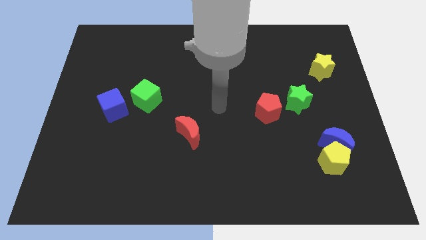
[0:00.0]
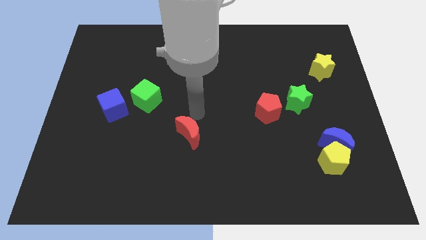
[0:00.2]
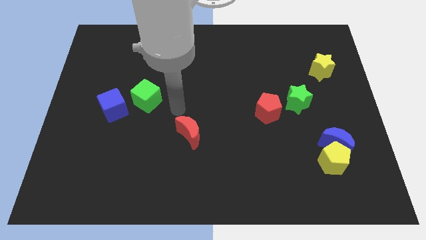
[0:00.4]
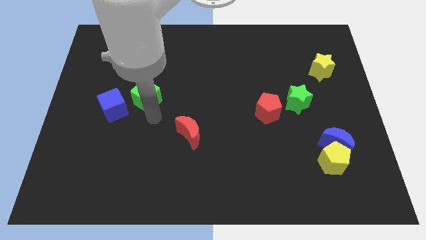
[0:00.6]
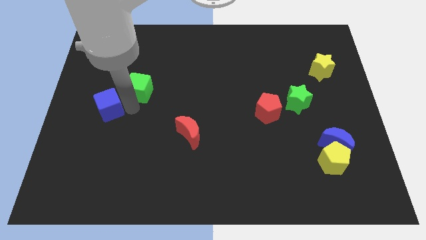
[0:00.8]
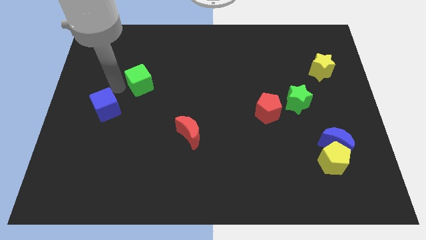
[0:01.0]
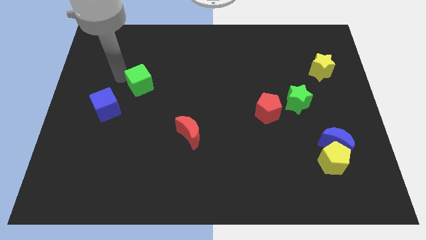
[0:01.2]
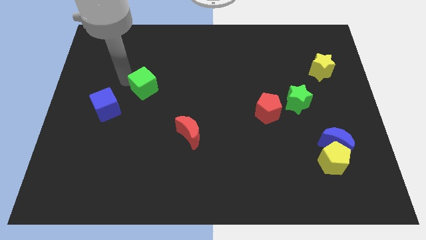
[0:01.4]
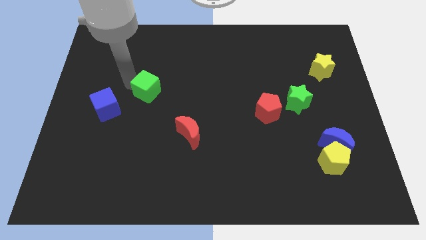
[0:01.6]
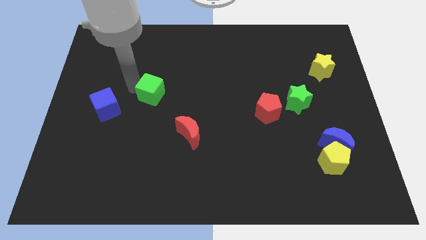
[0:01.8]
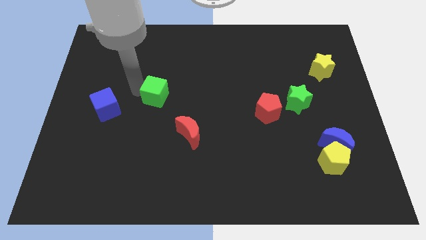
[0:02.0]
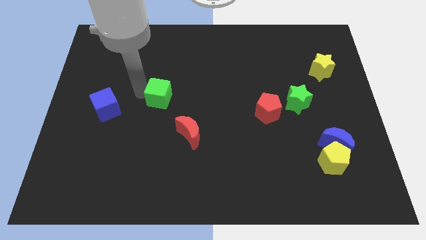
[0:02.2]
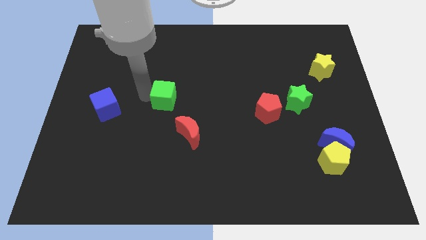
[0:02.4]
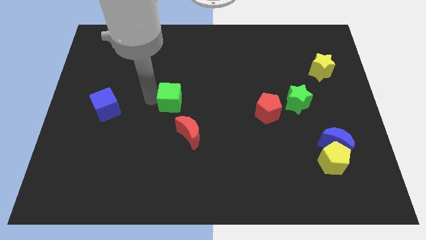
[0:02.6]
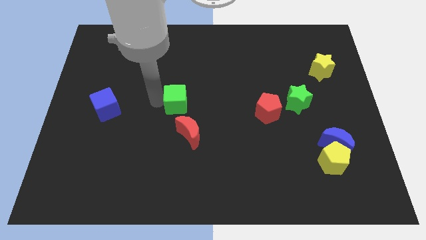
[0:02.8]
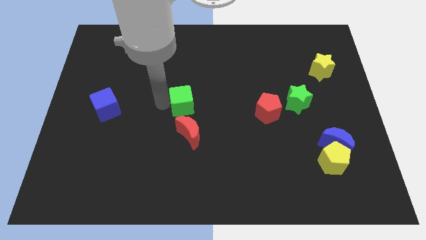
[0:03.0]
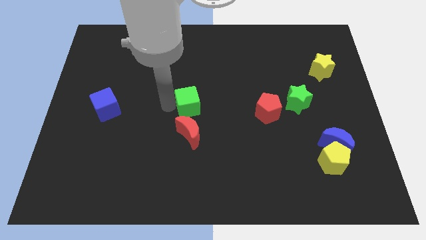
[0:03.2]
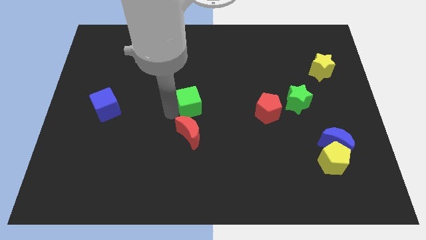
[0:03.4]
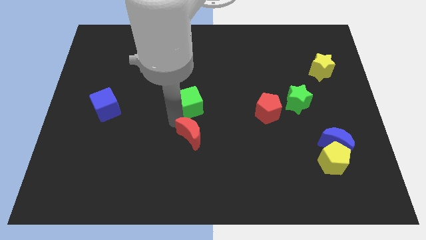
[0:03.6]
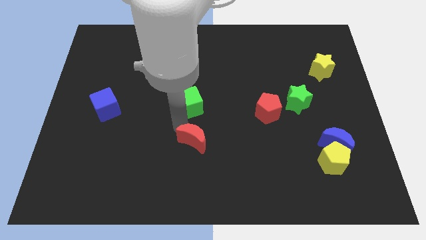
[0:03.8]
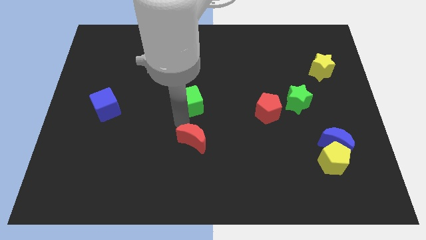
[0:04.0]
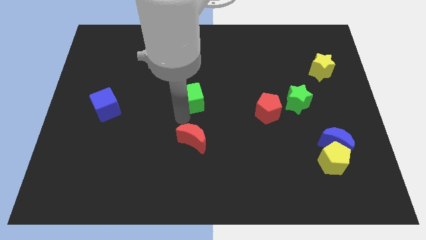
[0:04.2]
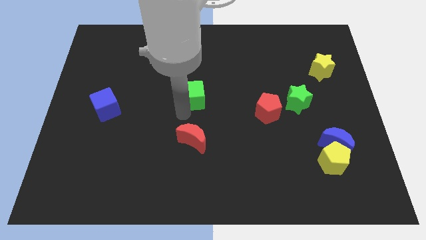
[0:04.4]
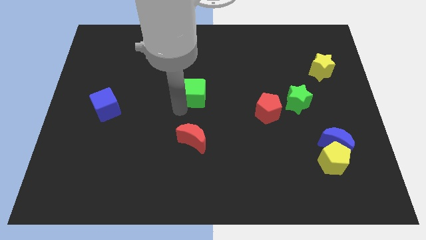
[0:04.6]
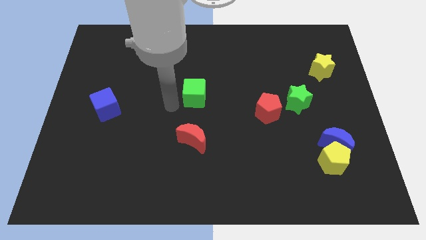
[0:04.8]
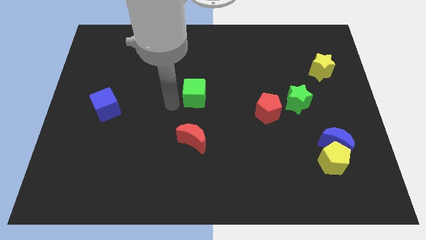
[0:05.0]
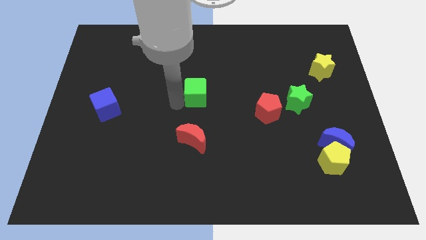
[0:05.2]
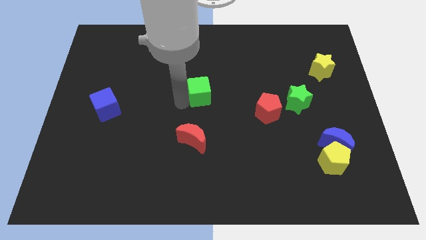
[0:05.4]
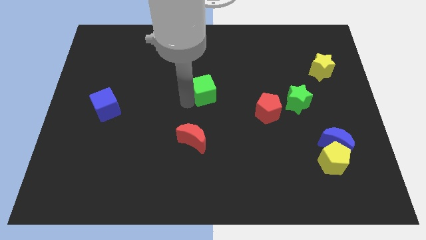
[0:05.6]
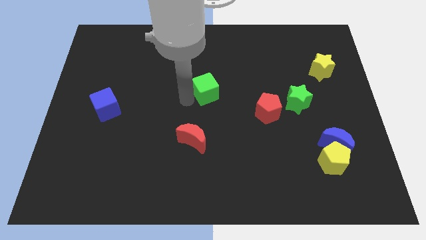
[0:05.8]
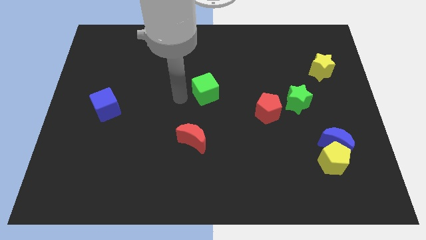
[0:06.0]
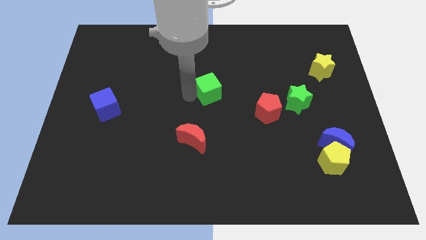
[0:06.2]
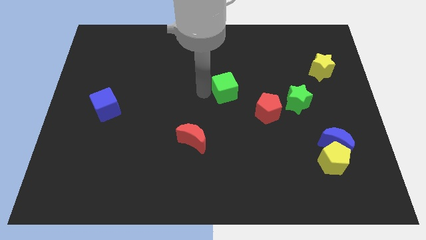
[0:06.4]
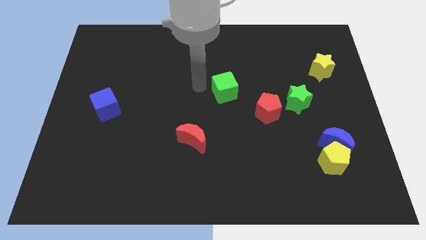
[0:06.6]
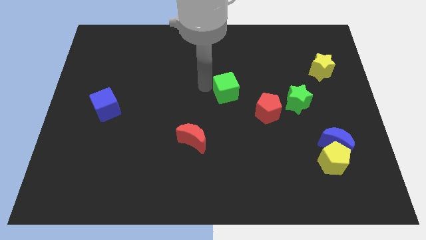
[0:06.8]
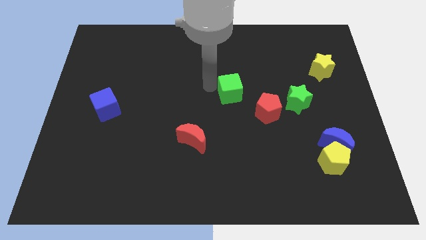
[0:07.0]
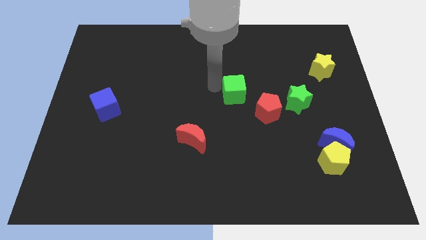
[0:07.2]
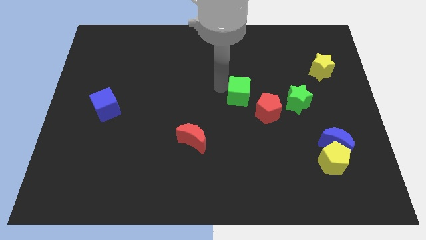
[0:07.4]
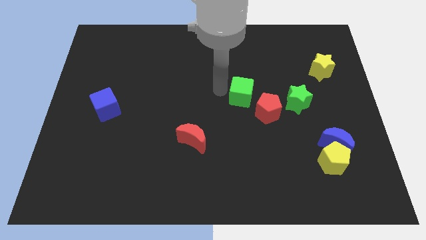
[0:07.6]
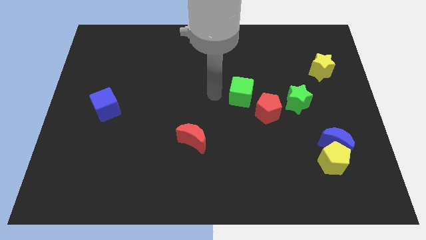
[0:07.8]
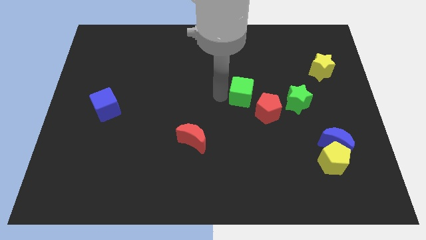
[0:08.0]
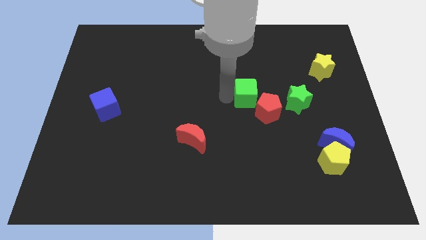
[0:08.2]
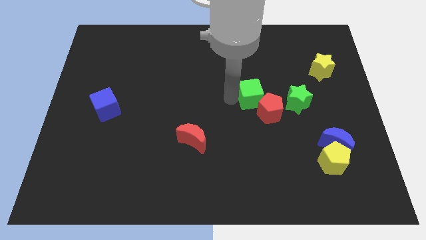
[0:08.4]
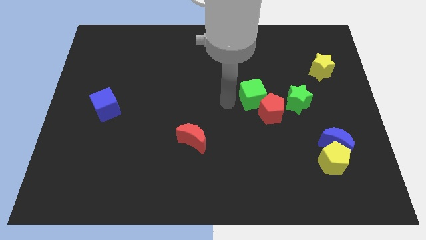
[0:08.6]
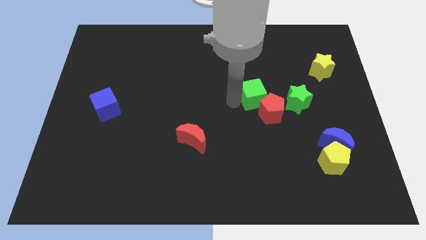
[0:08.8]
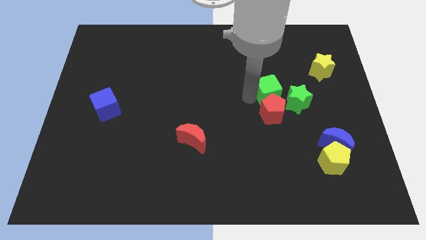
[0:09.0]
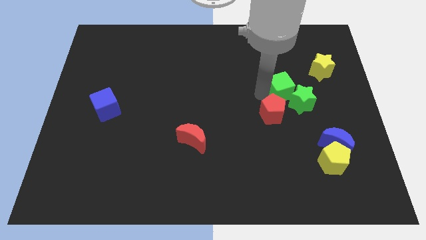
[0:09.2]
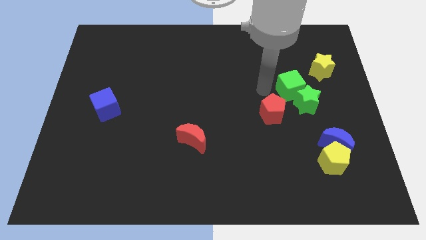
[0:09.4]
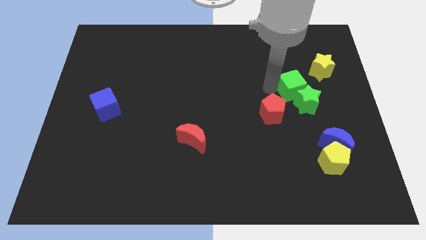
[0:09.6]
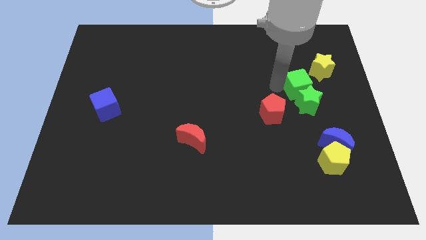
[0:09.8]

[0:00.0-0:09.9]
push the green cube diagonally up and to the right of the green star

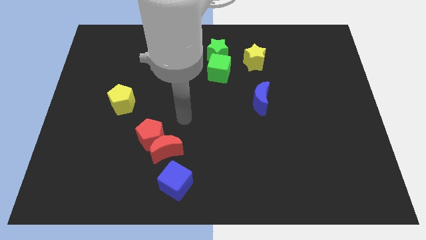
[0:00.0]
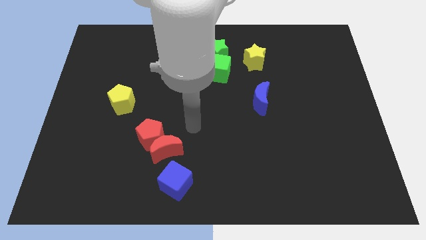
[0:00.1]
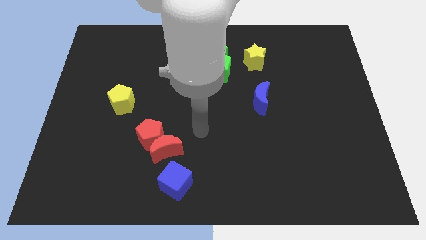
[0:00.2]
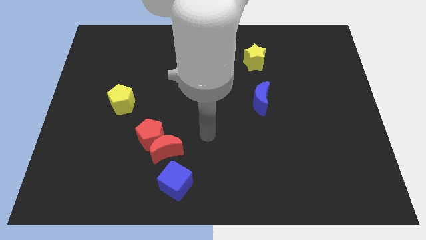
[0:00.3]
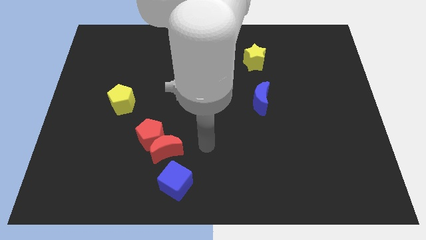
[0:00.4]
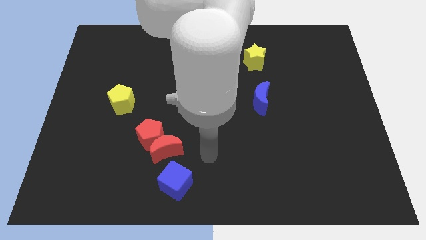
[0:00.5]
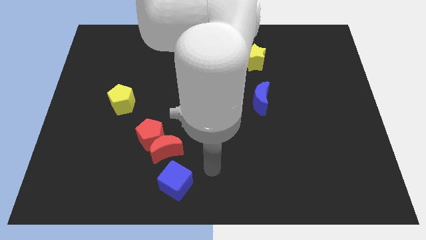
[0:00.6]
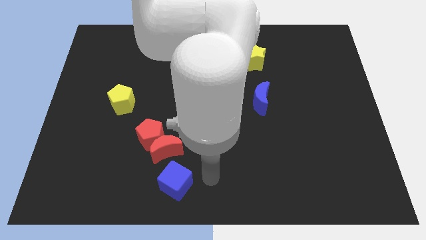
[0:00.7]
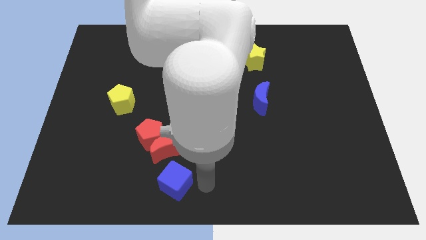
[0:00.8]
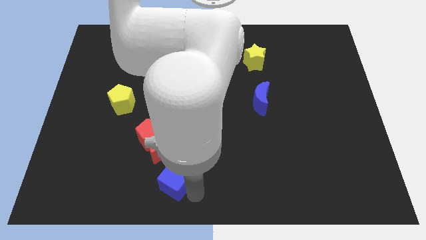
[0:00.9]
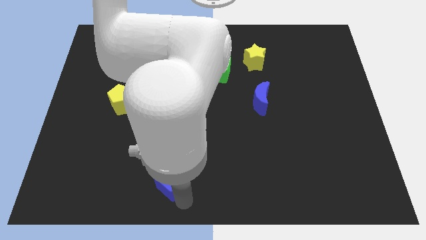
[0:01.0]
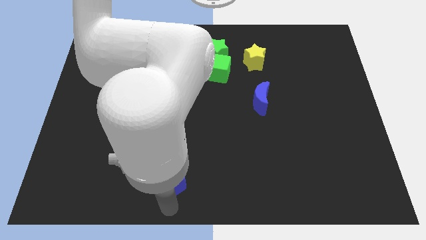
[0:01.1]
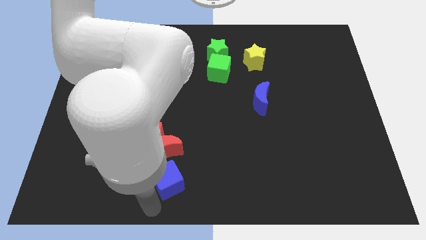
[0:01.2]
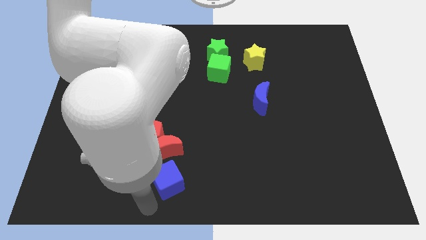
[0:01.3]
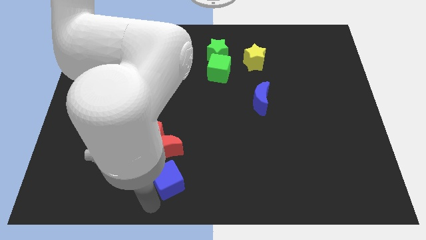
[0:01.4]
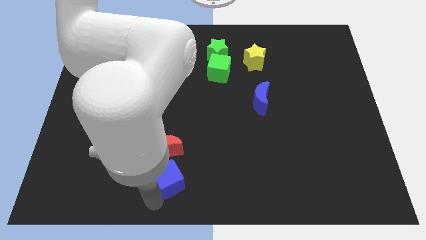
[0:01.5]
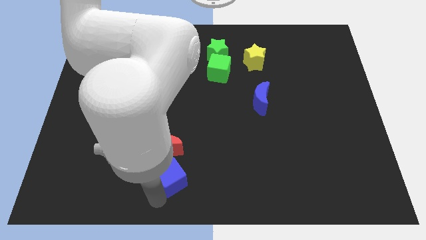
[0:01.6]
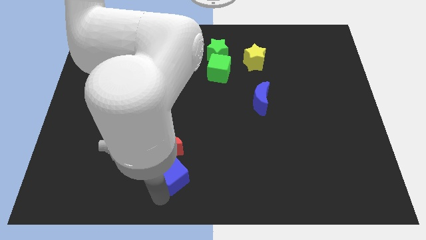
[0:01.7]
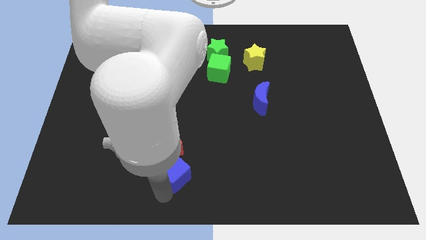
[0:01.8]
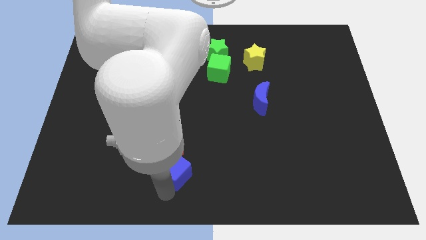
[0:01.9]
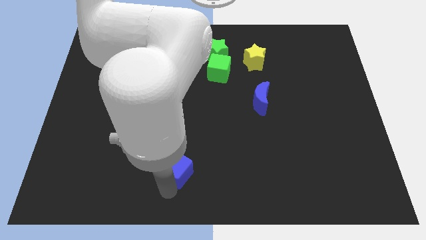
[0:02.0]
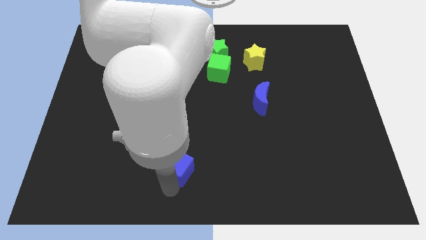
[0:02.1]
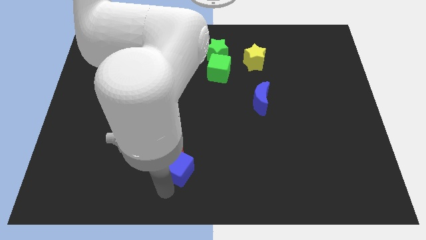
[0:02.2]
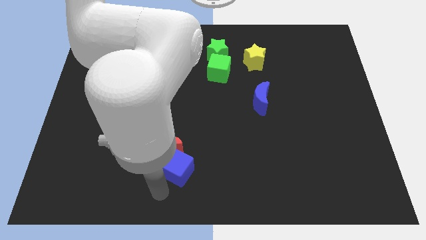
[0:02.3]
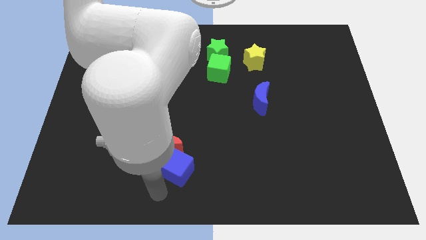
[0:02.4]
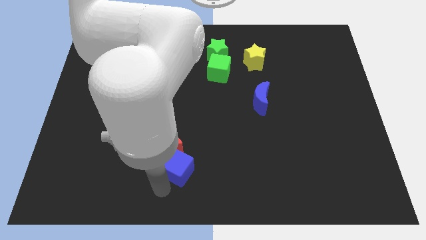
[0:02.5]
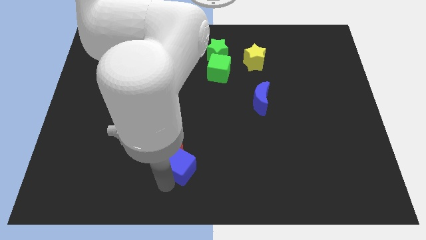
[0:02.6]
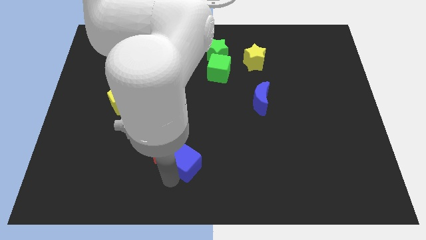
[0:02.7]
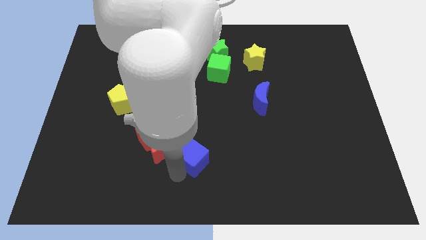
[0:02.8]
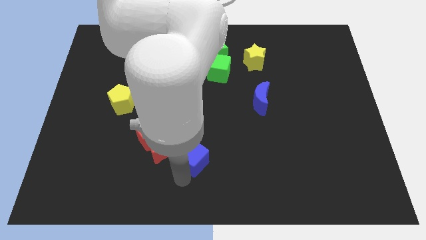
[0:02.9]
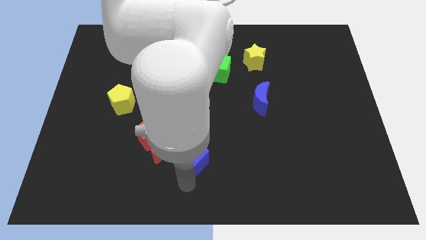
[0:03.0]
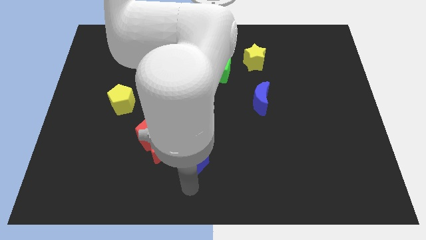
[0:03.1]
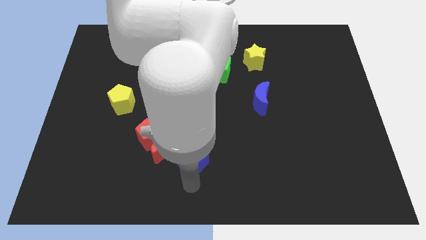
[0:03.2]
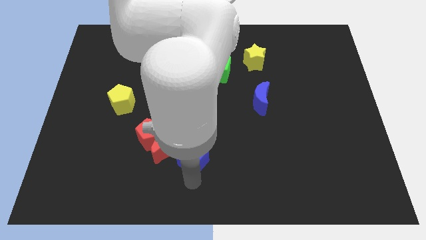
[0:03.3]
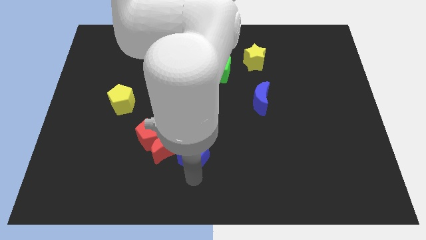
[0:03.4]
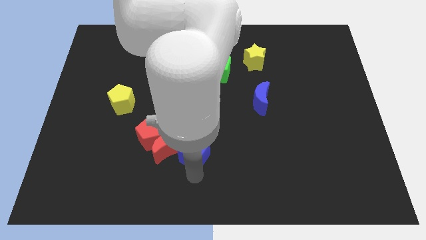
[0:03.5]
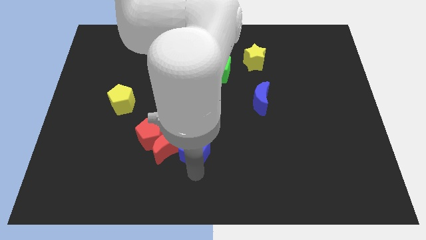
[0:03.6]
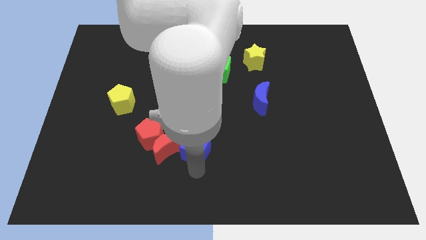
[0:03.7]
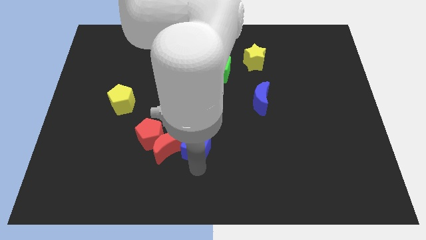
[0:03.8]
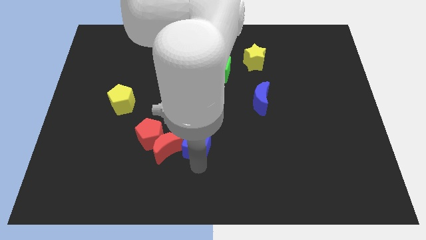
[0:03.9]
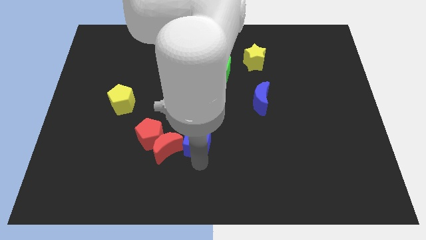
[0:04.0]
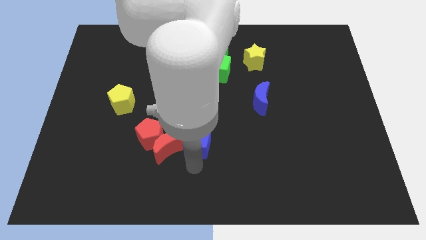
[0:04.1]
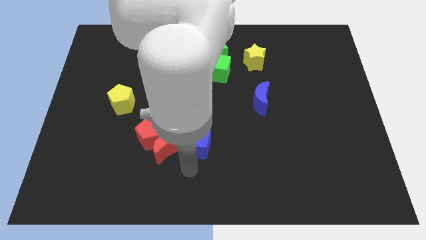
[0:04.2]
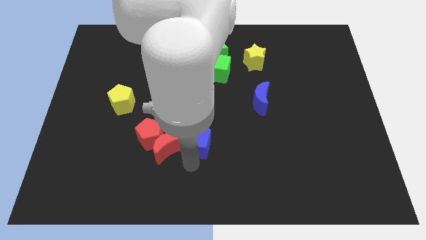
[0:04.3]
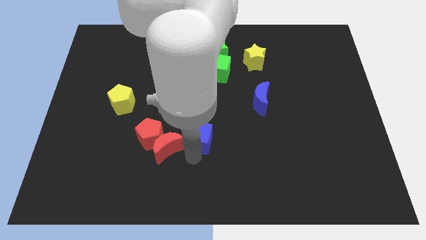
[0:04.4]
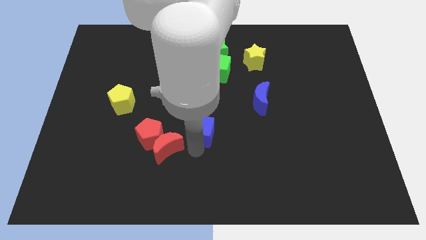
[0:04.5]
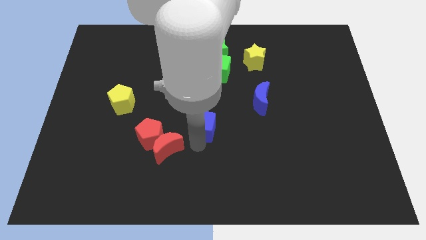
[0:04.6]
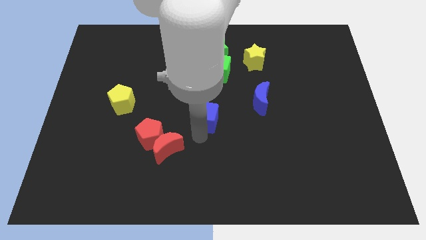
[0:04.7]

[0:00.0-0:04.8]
push the blue cube to the bottom side of the green cube
